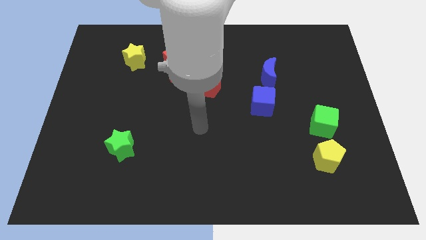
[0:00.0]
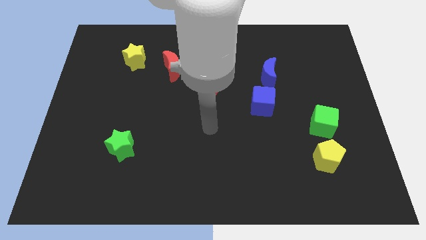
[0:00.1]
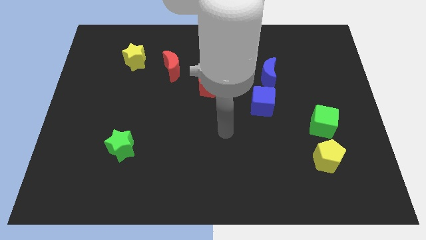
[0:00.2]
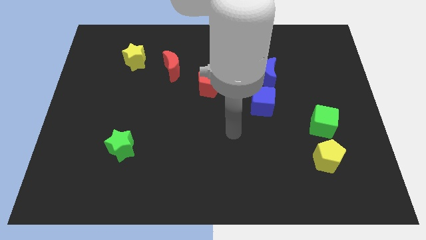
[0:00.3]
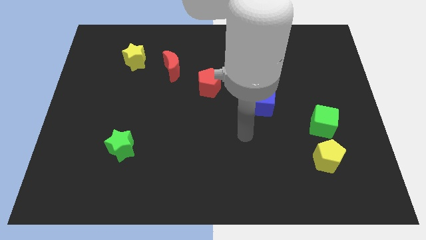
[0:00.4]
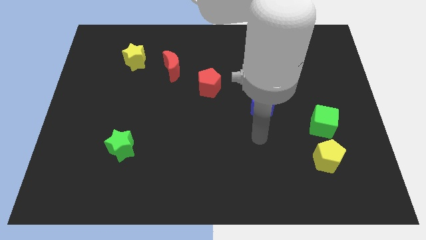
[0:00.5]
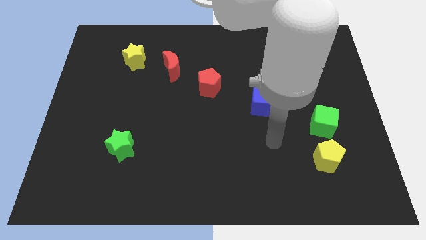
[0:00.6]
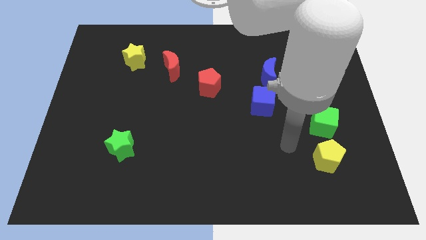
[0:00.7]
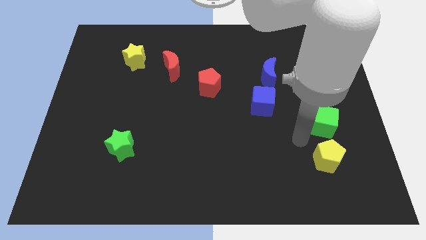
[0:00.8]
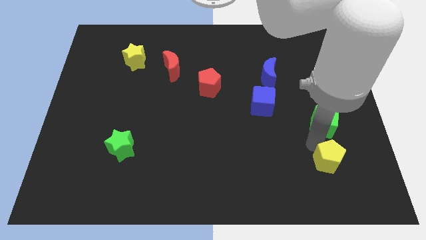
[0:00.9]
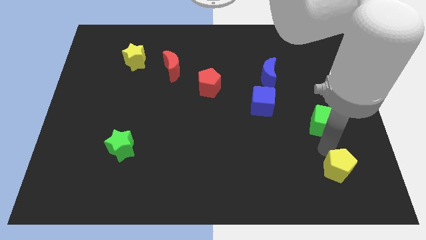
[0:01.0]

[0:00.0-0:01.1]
separate the green cube from the yellow pentagon

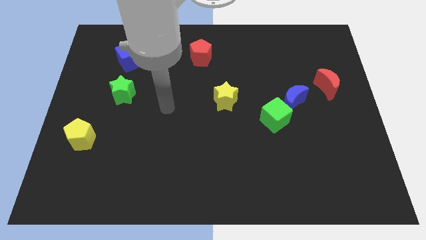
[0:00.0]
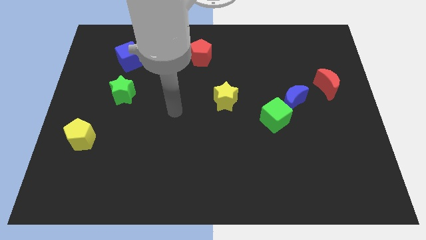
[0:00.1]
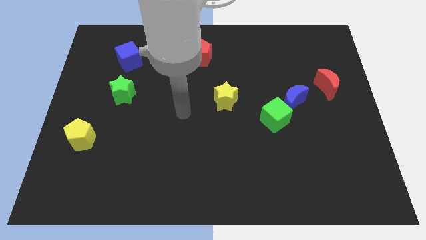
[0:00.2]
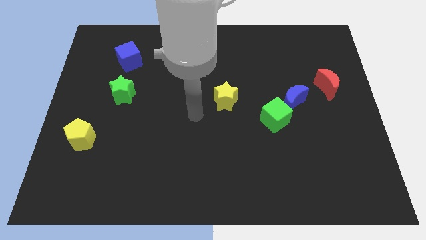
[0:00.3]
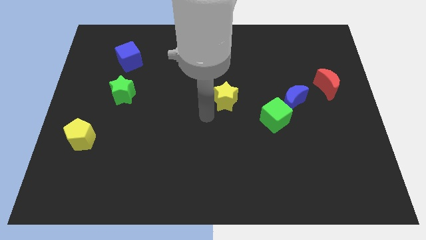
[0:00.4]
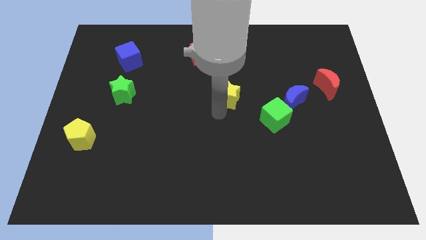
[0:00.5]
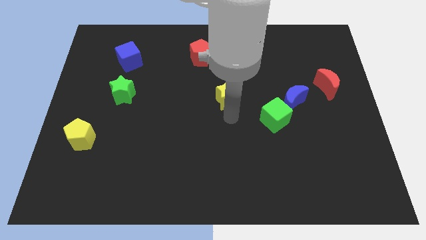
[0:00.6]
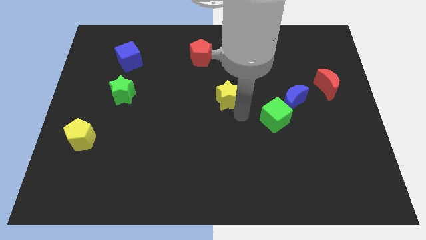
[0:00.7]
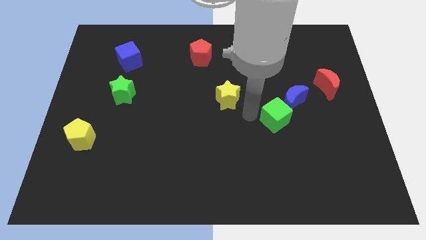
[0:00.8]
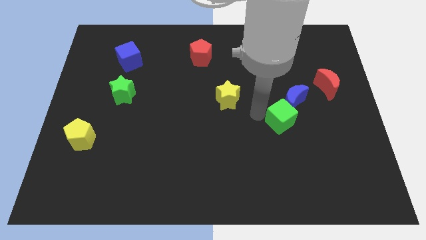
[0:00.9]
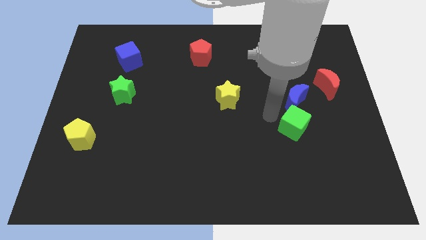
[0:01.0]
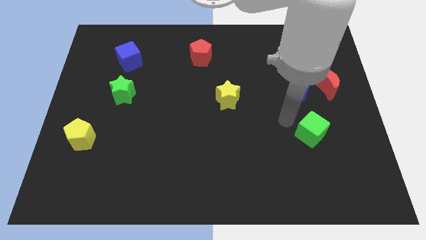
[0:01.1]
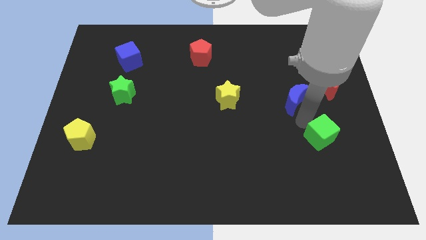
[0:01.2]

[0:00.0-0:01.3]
separate the blue moon from the green cube

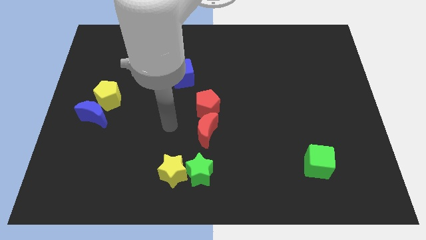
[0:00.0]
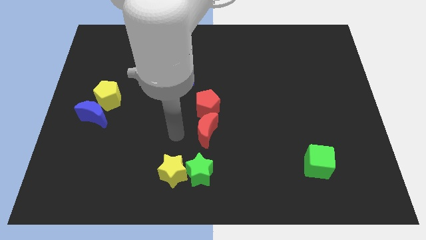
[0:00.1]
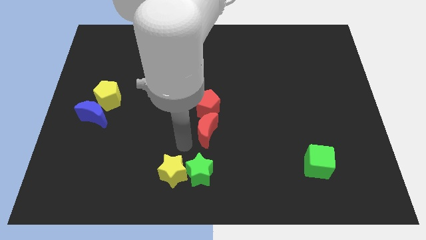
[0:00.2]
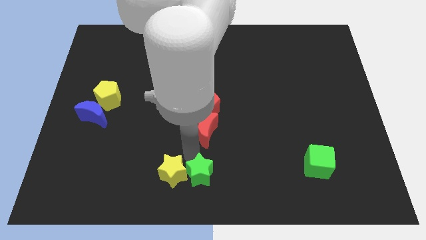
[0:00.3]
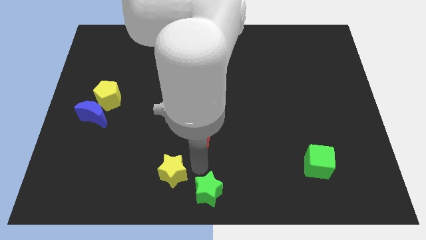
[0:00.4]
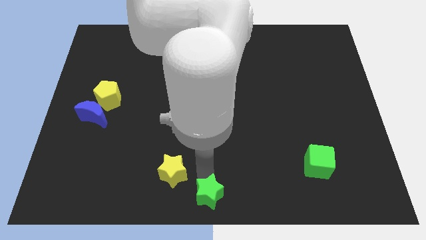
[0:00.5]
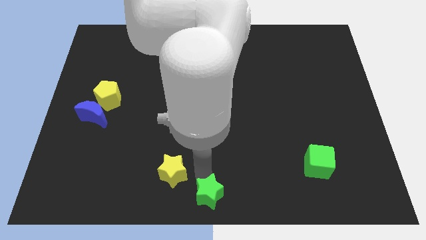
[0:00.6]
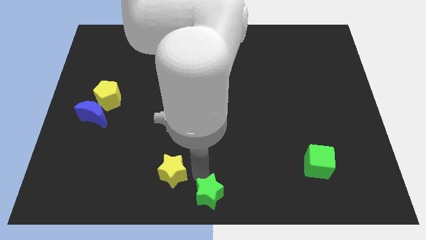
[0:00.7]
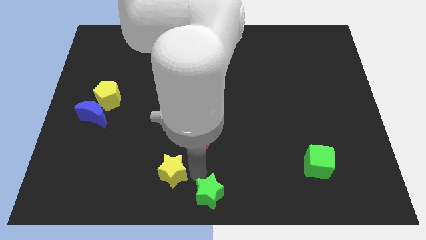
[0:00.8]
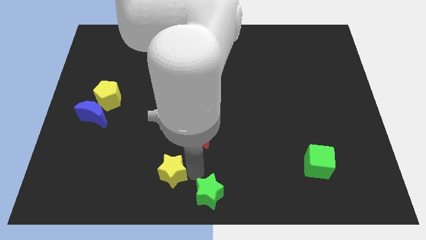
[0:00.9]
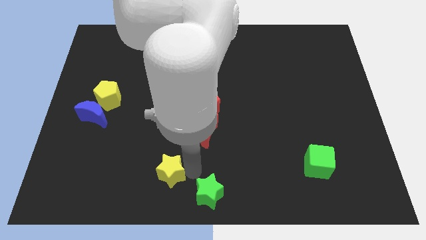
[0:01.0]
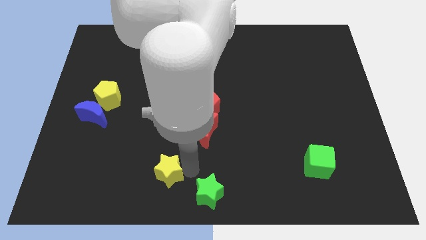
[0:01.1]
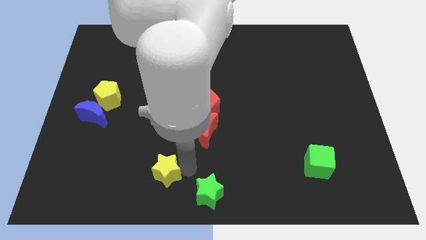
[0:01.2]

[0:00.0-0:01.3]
pull the yellow star apart from the green star

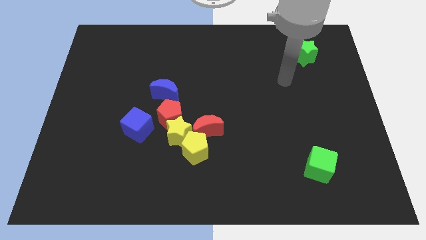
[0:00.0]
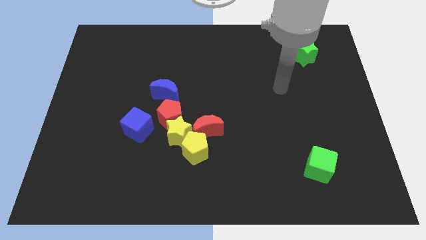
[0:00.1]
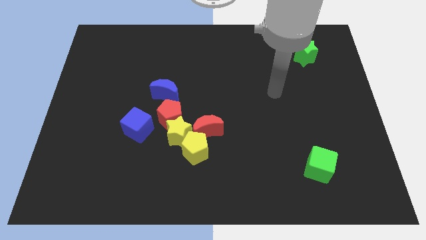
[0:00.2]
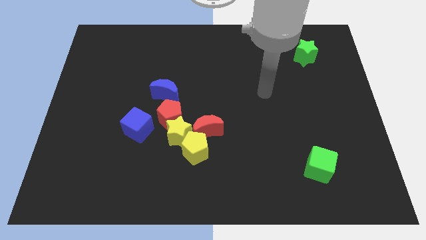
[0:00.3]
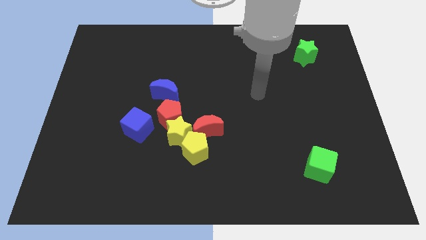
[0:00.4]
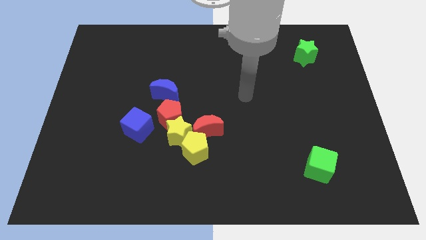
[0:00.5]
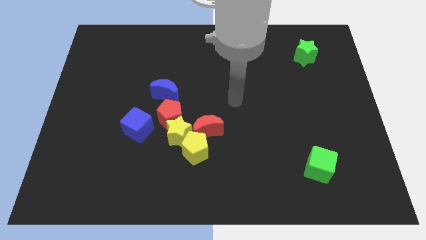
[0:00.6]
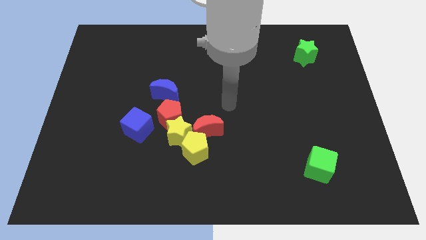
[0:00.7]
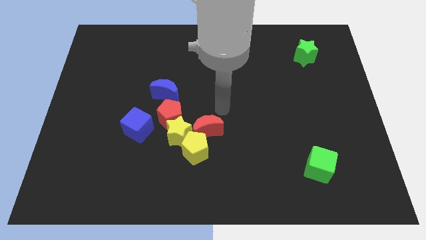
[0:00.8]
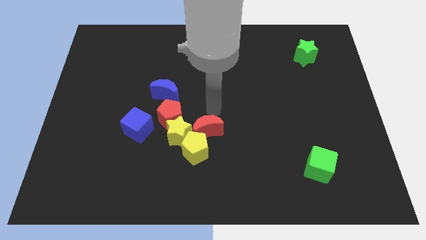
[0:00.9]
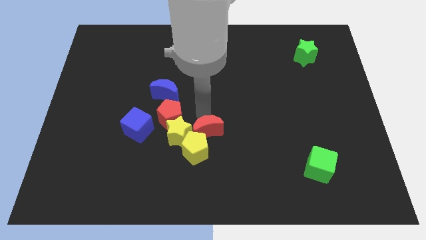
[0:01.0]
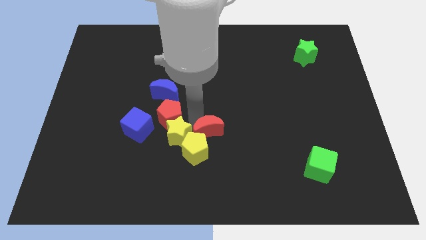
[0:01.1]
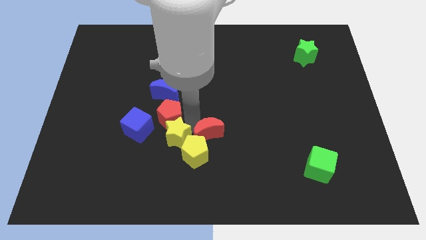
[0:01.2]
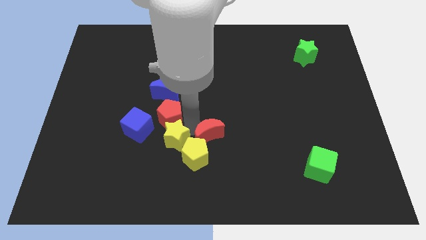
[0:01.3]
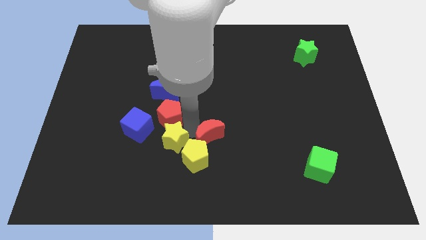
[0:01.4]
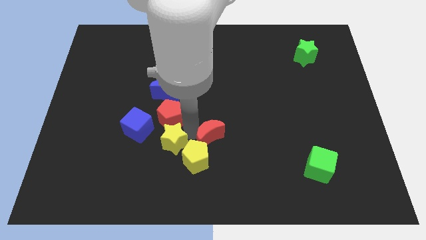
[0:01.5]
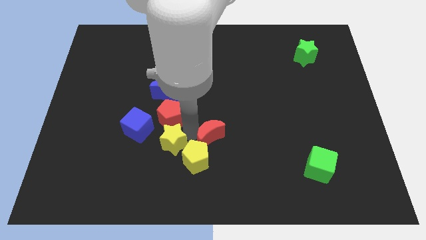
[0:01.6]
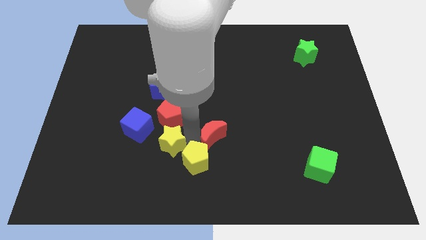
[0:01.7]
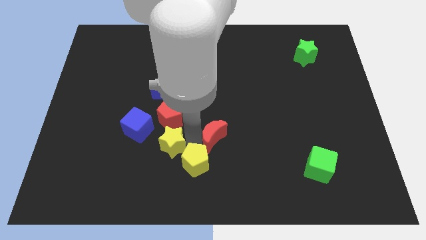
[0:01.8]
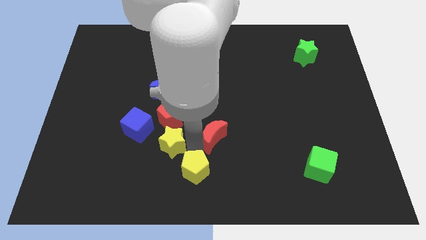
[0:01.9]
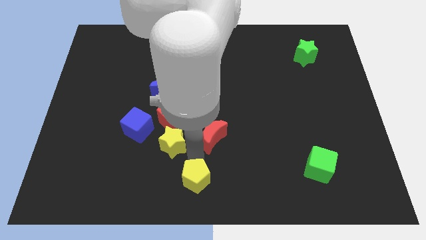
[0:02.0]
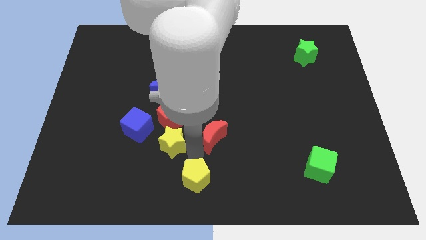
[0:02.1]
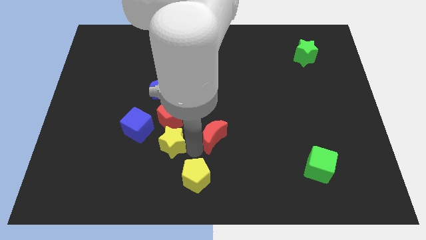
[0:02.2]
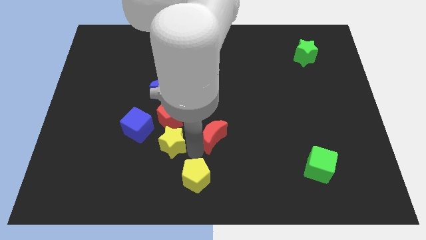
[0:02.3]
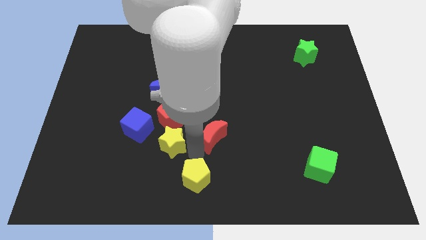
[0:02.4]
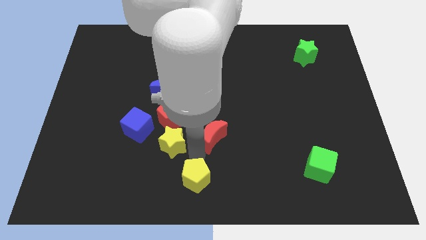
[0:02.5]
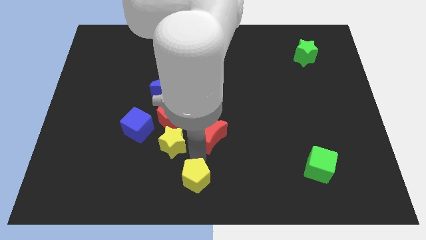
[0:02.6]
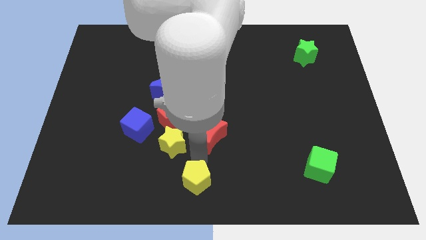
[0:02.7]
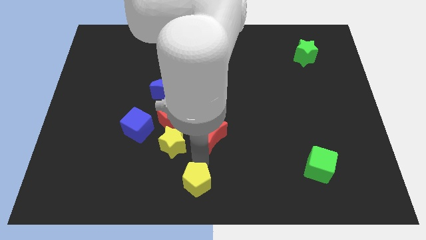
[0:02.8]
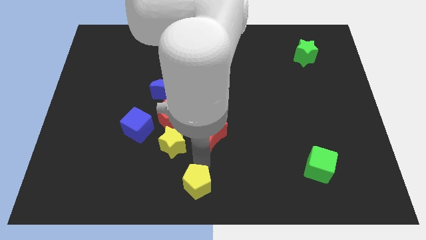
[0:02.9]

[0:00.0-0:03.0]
move the yellow pentagon away from the red moon and yellow star

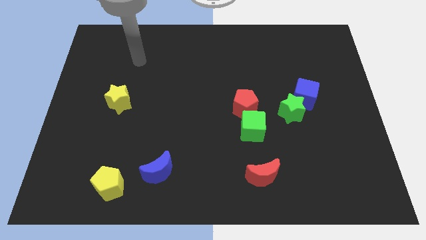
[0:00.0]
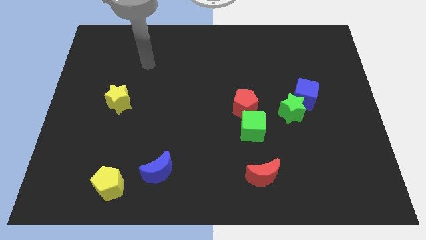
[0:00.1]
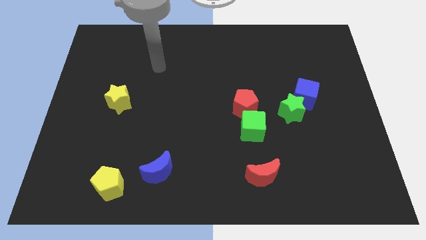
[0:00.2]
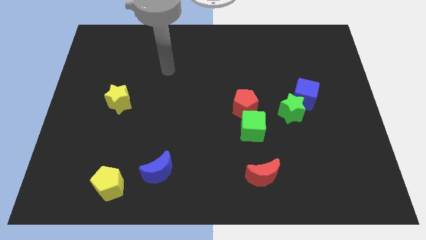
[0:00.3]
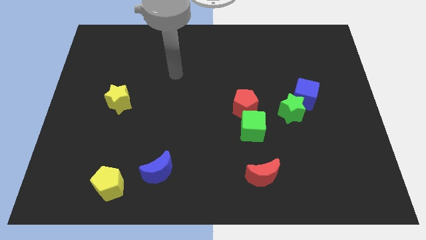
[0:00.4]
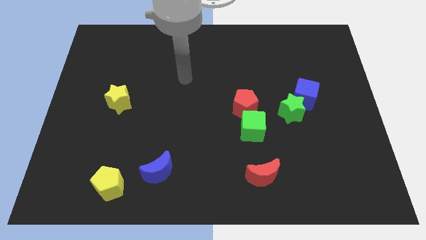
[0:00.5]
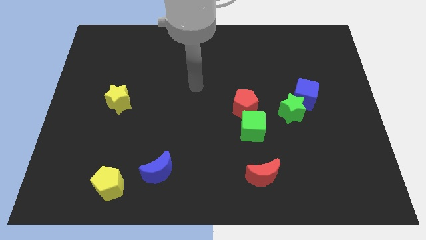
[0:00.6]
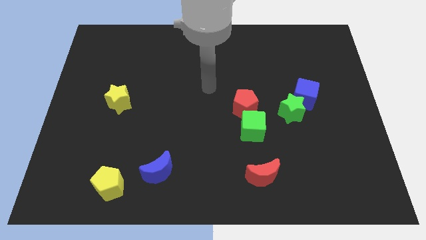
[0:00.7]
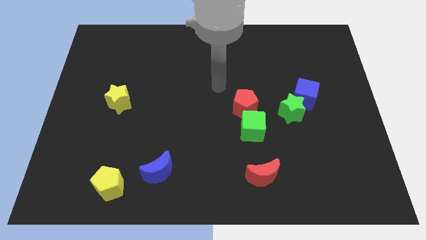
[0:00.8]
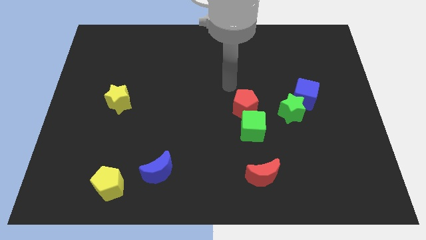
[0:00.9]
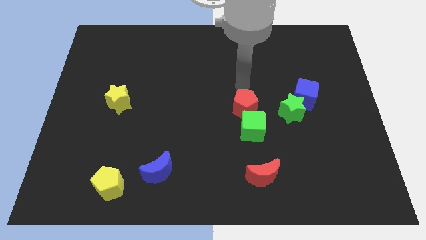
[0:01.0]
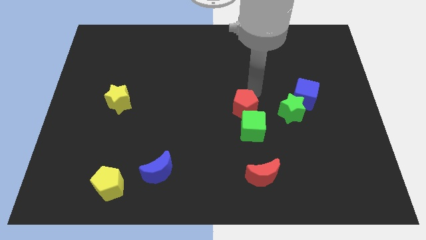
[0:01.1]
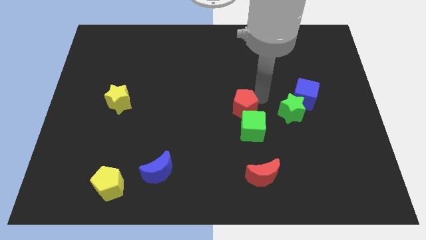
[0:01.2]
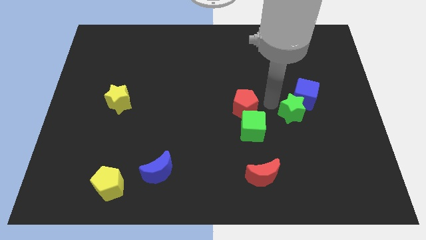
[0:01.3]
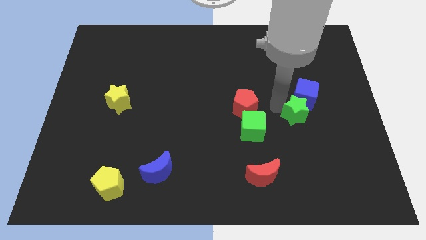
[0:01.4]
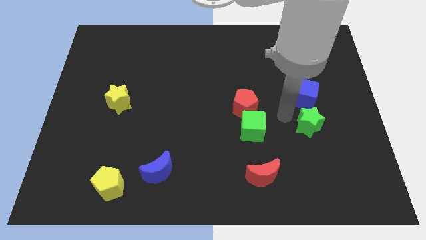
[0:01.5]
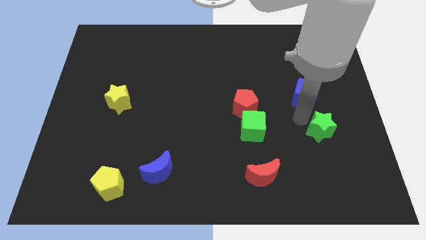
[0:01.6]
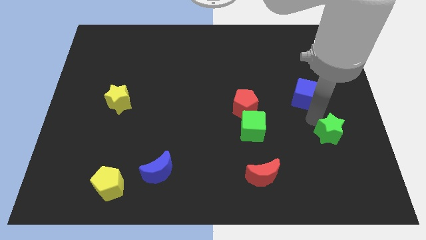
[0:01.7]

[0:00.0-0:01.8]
pull the blue cube apart from the green star

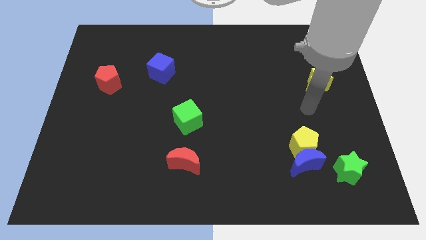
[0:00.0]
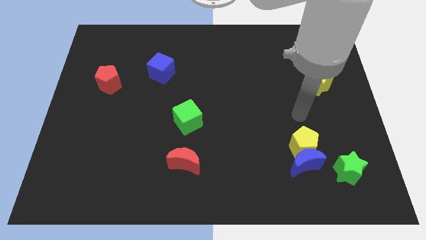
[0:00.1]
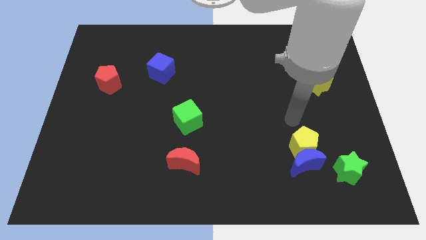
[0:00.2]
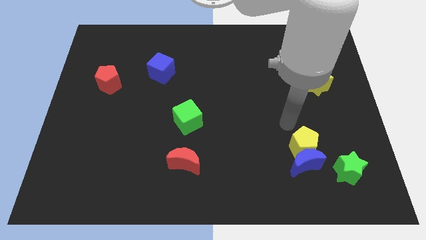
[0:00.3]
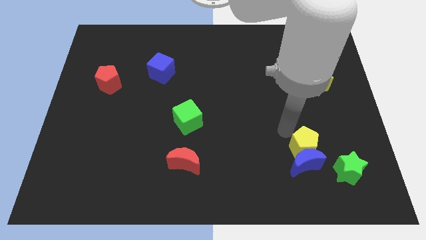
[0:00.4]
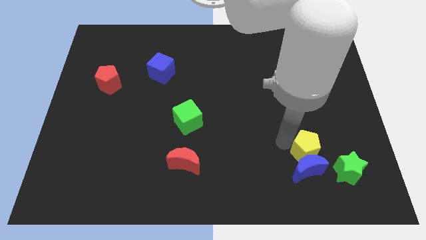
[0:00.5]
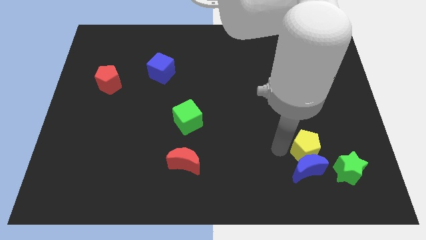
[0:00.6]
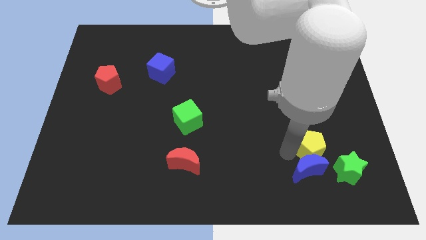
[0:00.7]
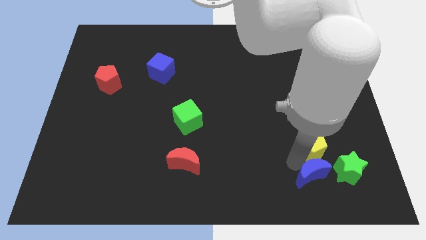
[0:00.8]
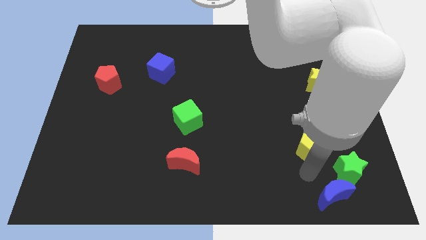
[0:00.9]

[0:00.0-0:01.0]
separate the yellow pentagon from the blue moon
